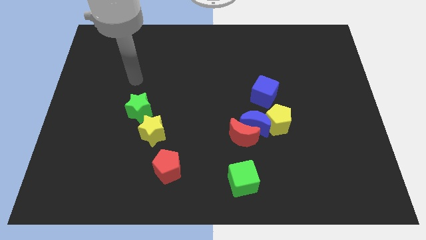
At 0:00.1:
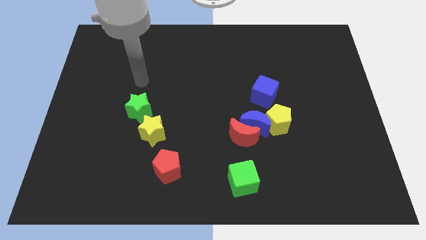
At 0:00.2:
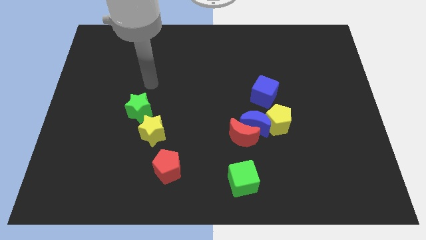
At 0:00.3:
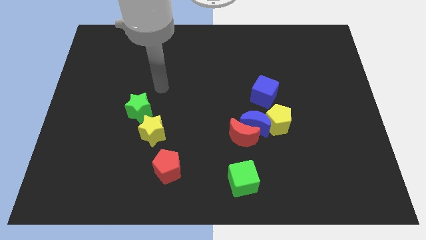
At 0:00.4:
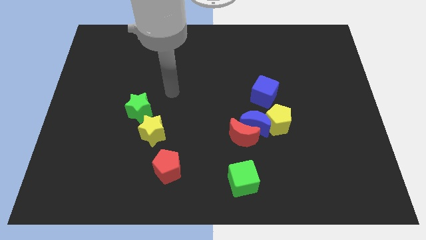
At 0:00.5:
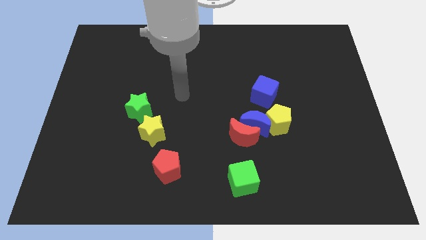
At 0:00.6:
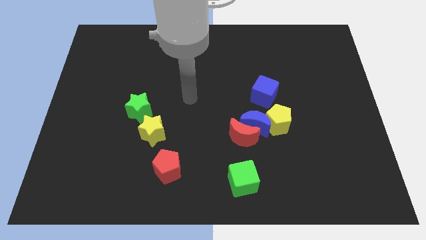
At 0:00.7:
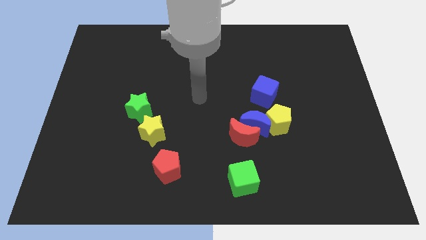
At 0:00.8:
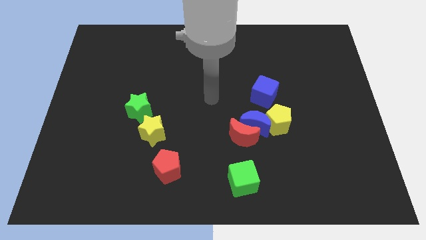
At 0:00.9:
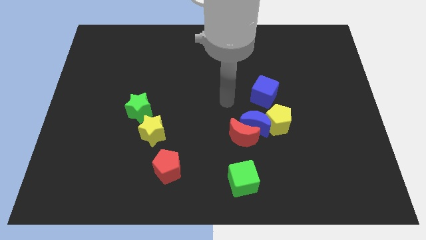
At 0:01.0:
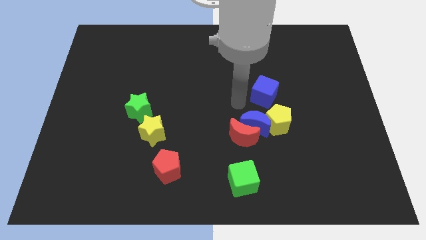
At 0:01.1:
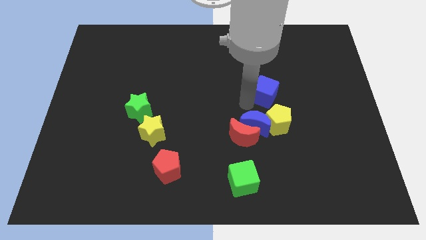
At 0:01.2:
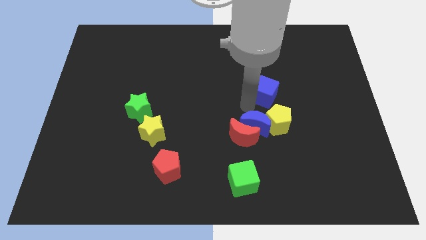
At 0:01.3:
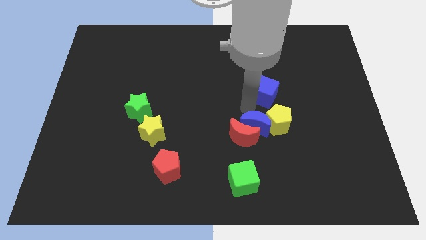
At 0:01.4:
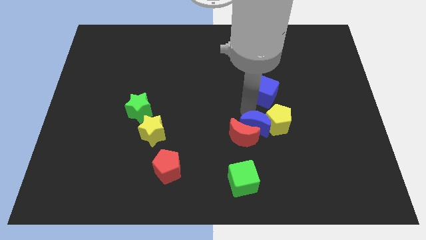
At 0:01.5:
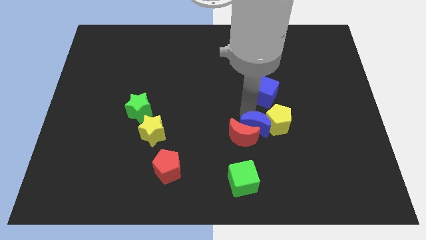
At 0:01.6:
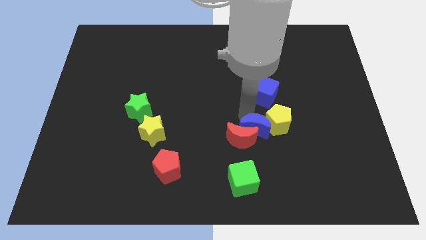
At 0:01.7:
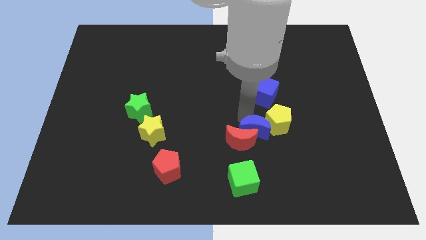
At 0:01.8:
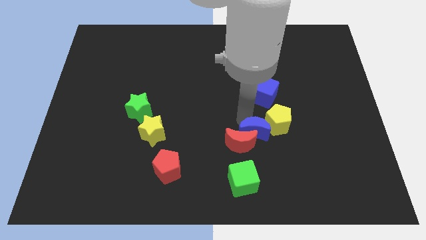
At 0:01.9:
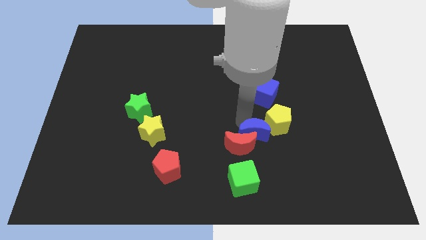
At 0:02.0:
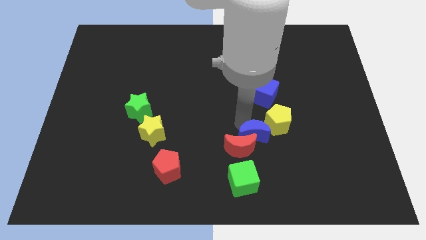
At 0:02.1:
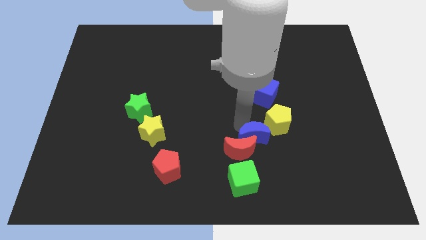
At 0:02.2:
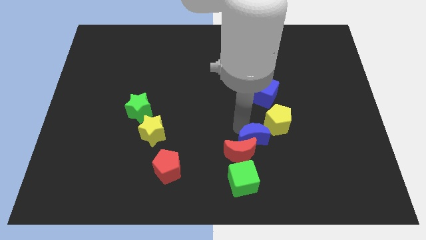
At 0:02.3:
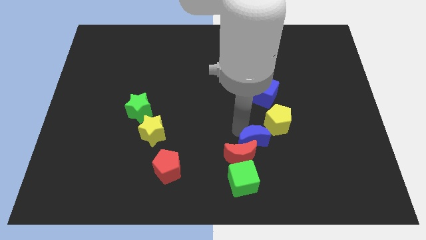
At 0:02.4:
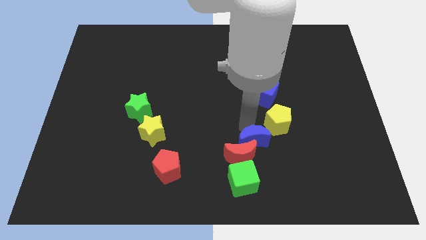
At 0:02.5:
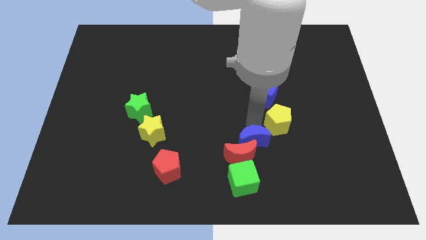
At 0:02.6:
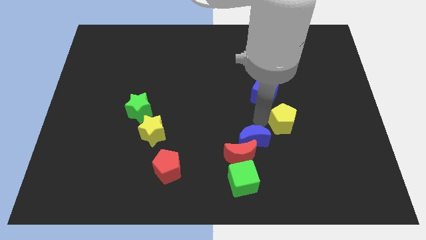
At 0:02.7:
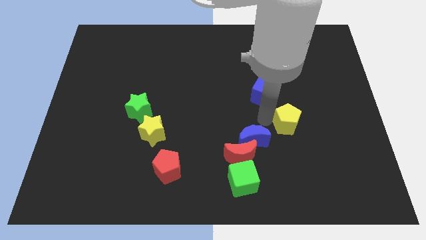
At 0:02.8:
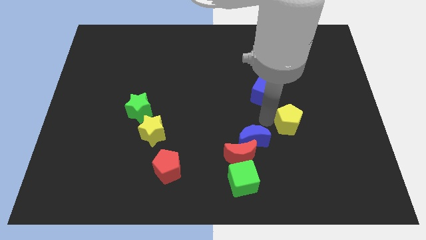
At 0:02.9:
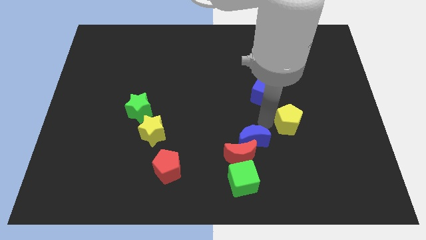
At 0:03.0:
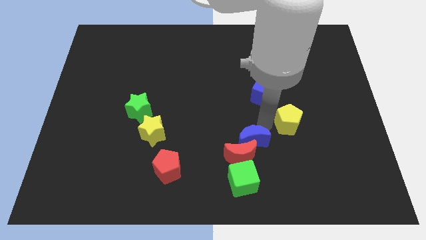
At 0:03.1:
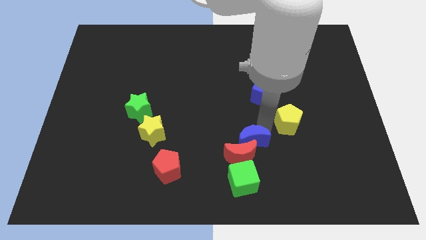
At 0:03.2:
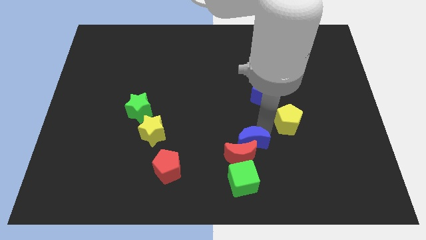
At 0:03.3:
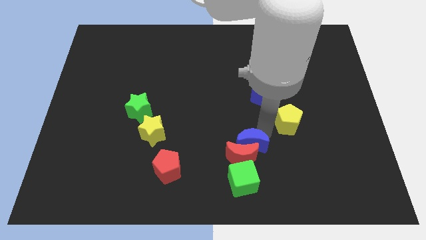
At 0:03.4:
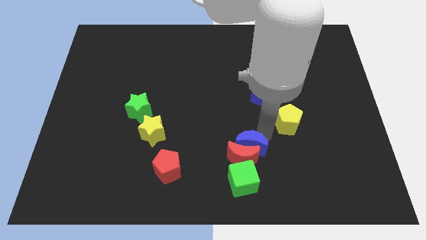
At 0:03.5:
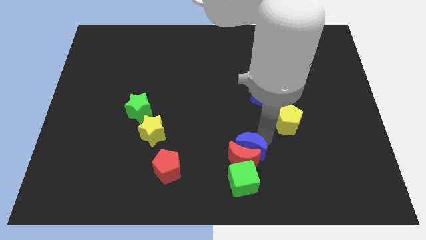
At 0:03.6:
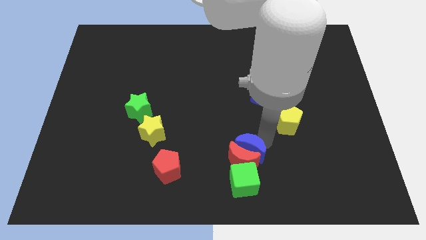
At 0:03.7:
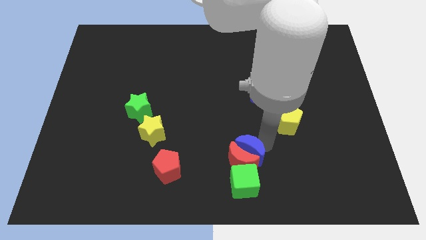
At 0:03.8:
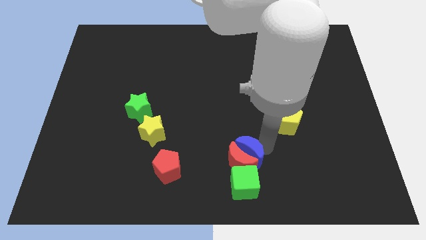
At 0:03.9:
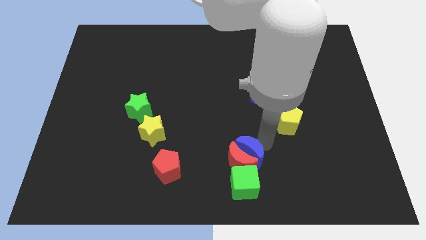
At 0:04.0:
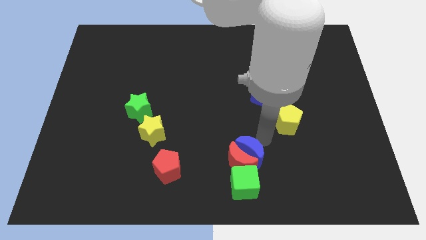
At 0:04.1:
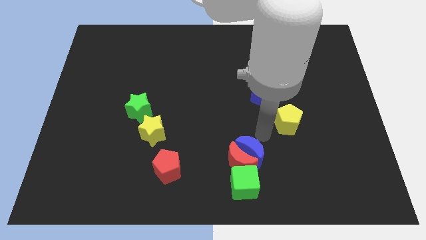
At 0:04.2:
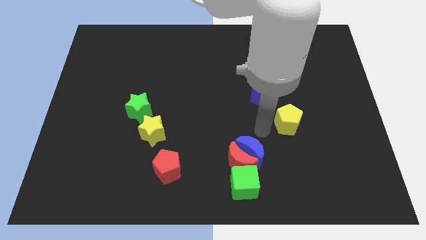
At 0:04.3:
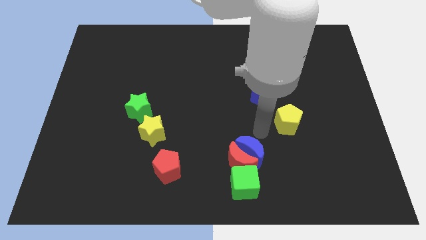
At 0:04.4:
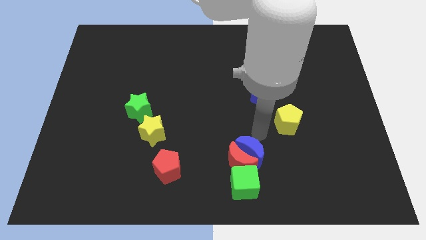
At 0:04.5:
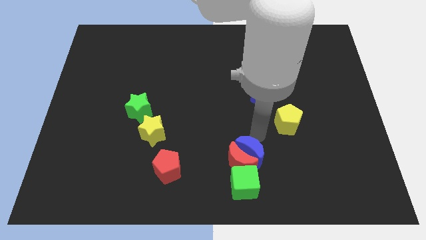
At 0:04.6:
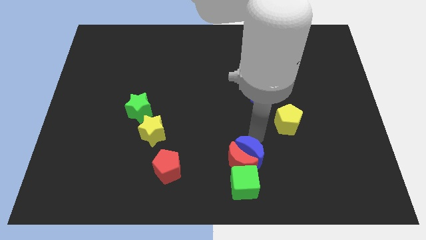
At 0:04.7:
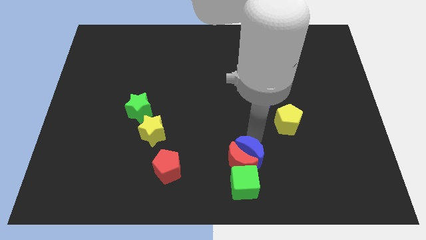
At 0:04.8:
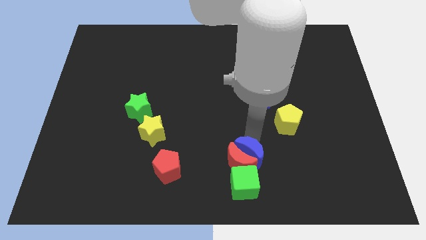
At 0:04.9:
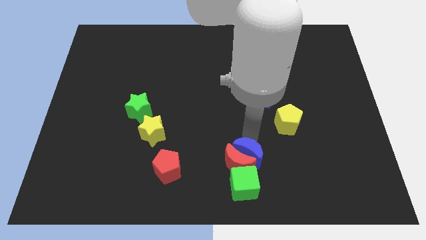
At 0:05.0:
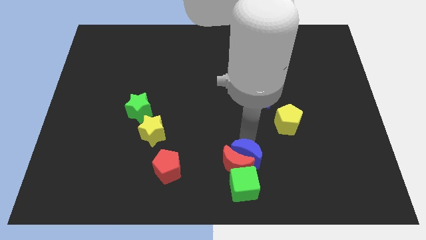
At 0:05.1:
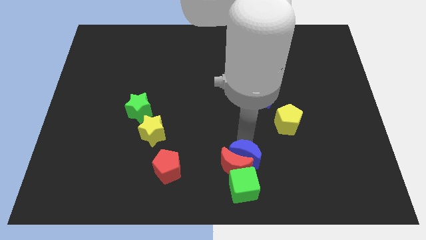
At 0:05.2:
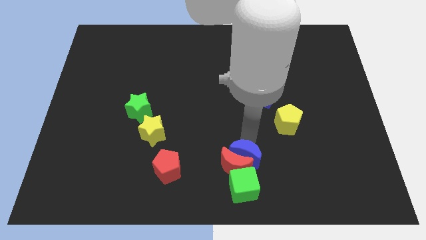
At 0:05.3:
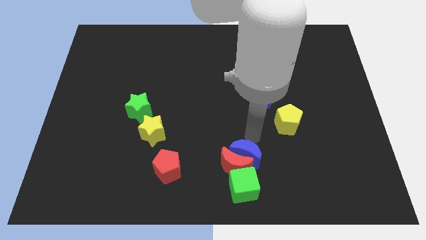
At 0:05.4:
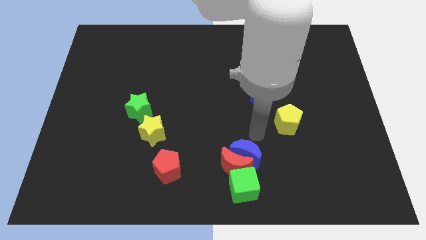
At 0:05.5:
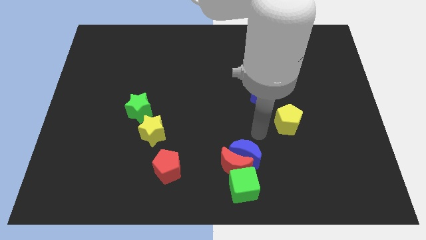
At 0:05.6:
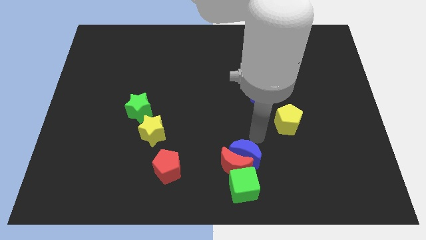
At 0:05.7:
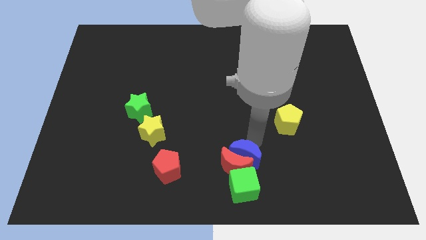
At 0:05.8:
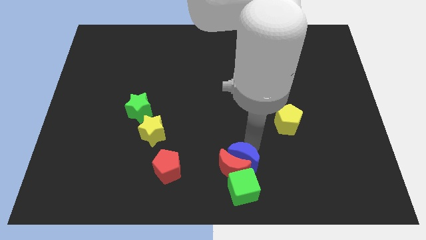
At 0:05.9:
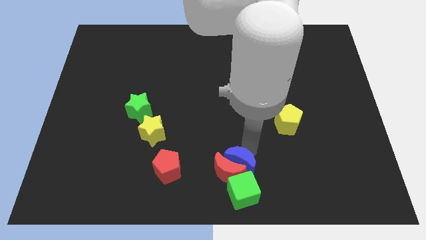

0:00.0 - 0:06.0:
move the blue moon away from the group

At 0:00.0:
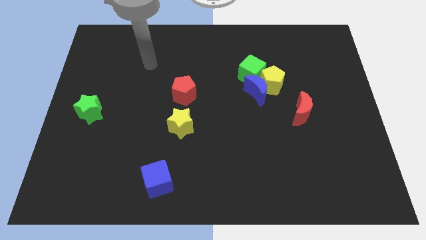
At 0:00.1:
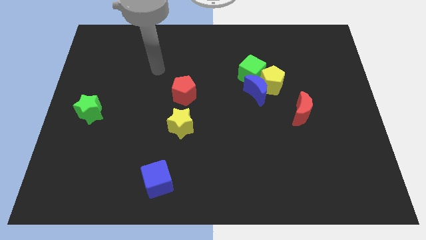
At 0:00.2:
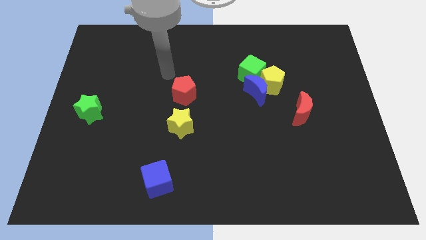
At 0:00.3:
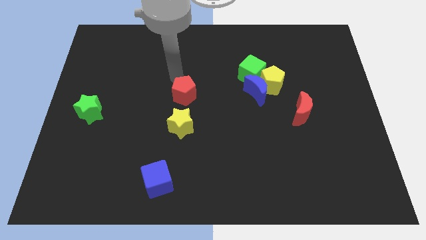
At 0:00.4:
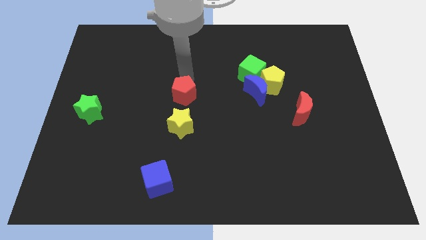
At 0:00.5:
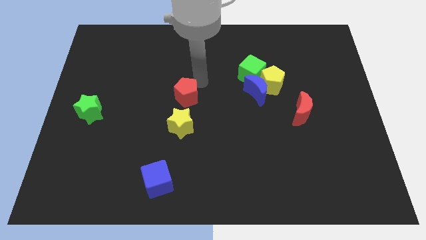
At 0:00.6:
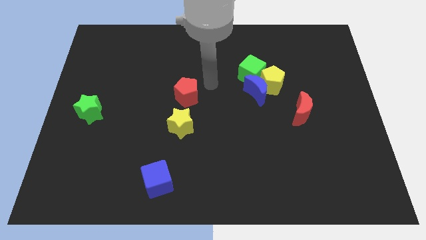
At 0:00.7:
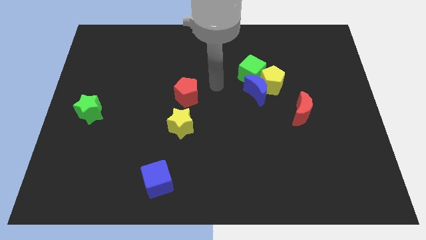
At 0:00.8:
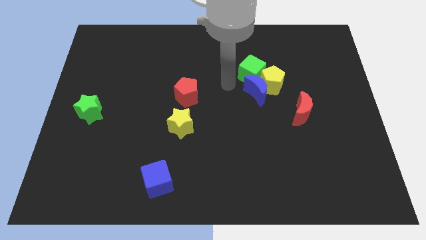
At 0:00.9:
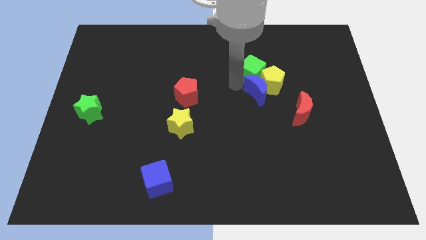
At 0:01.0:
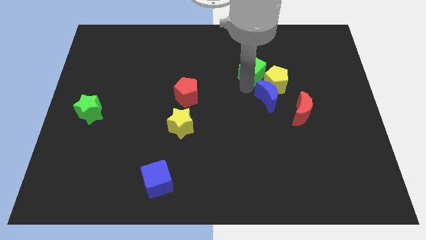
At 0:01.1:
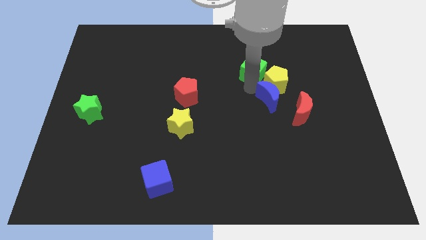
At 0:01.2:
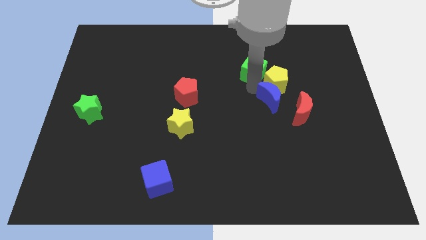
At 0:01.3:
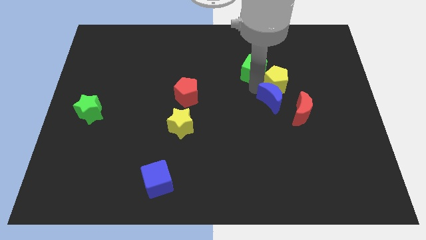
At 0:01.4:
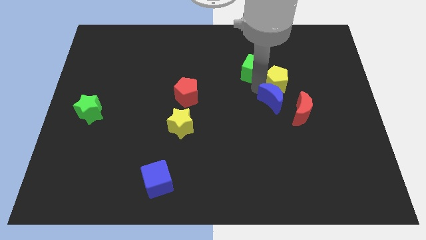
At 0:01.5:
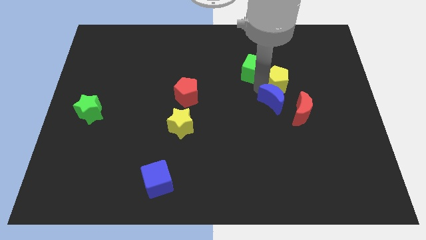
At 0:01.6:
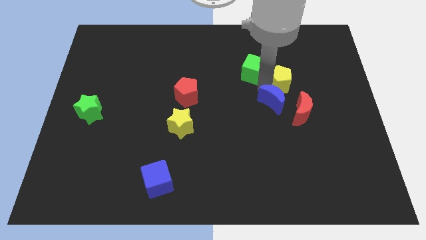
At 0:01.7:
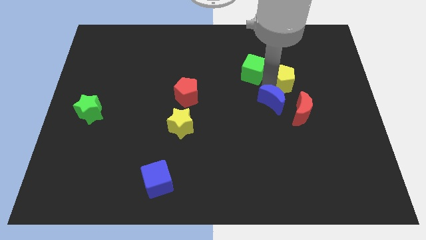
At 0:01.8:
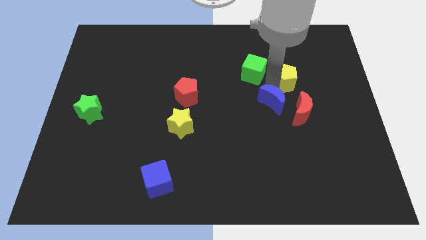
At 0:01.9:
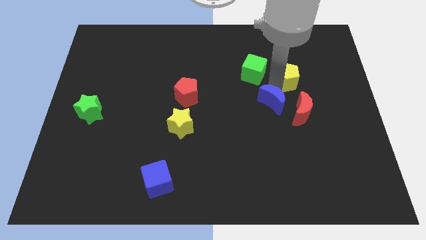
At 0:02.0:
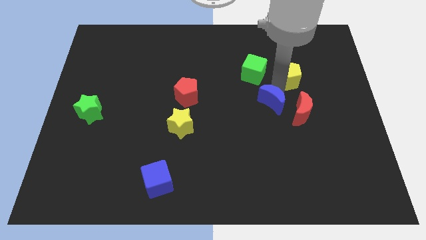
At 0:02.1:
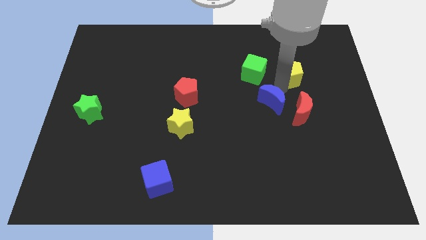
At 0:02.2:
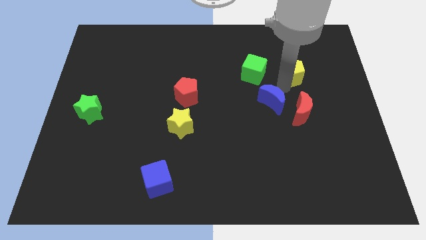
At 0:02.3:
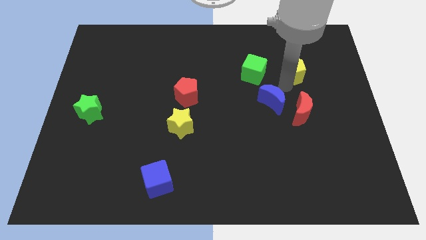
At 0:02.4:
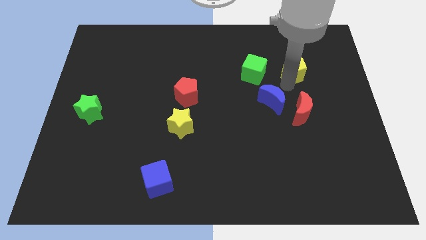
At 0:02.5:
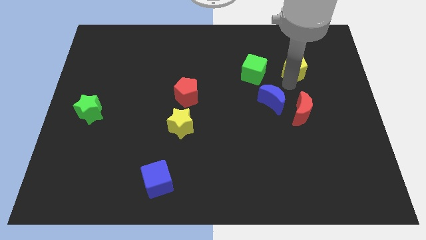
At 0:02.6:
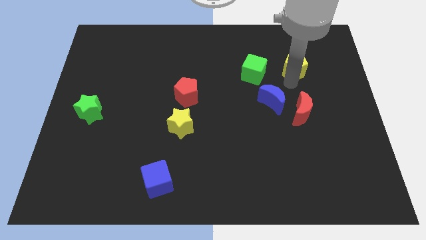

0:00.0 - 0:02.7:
pull the yellow pentagon apart from the blue moon and green cube

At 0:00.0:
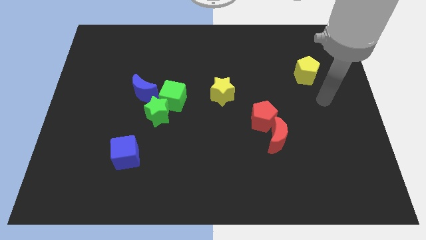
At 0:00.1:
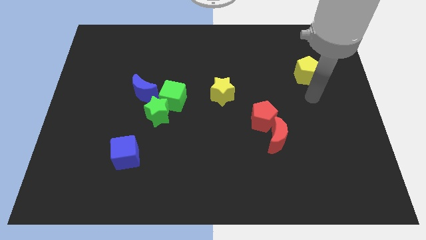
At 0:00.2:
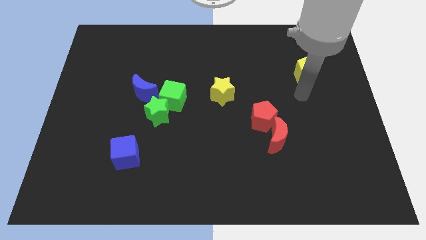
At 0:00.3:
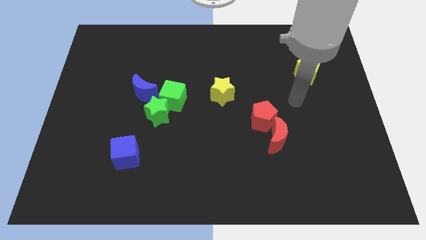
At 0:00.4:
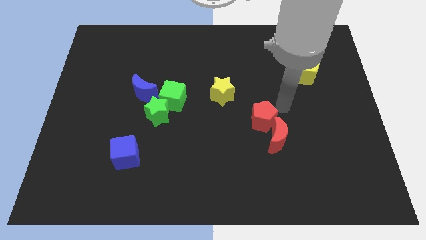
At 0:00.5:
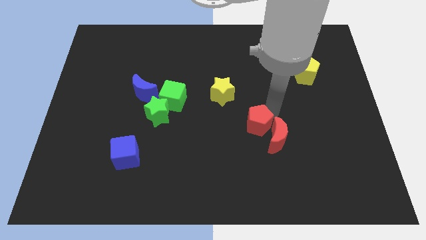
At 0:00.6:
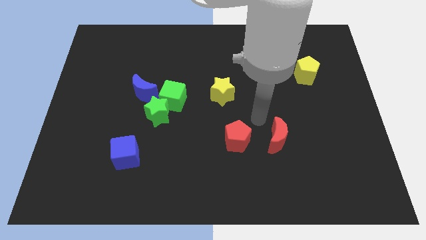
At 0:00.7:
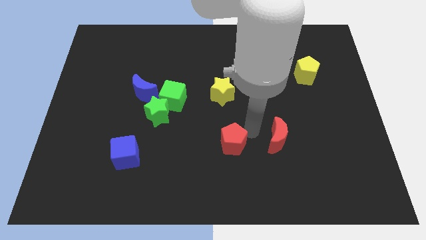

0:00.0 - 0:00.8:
pull the red moon apart from the red pentagon
